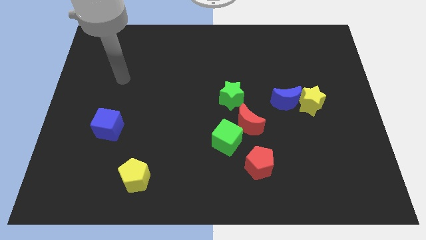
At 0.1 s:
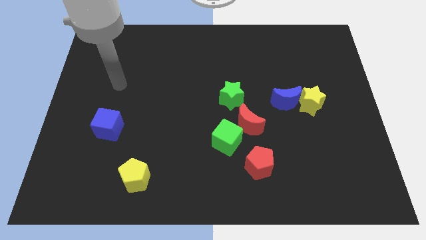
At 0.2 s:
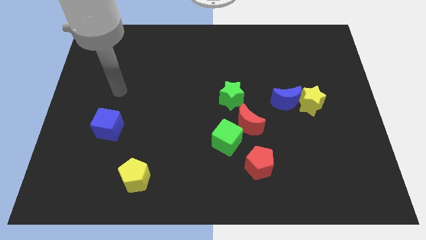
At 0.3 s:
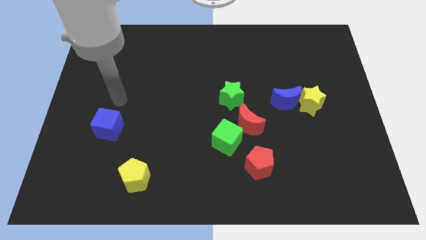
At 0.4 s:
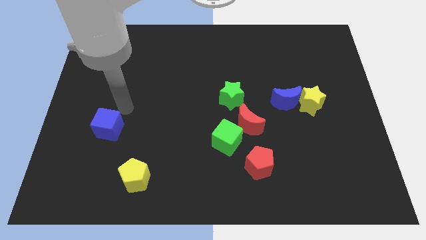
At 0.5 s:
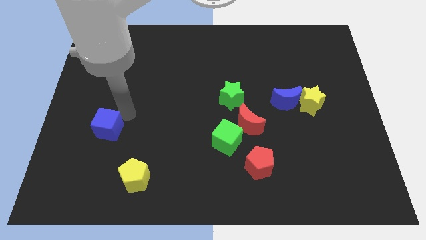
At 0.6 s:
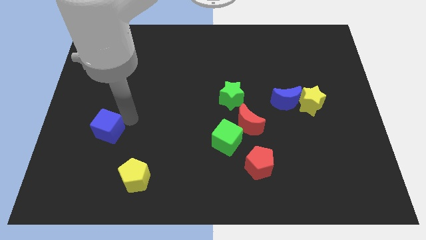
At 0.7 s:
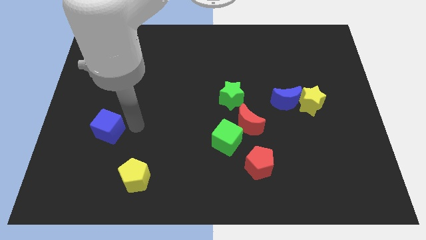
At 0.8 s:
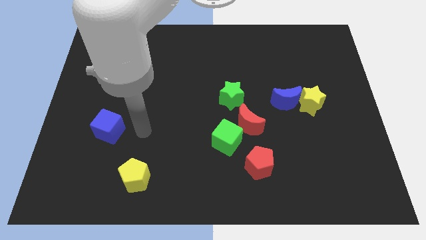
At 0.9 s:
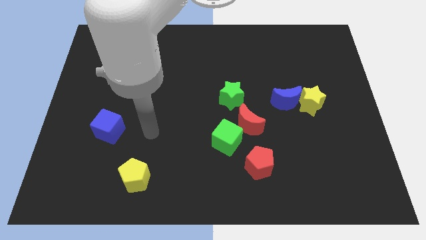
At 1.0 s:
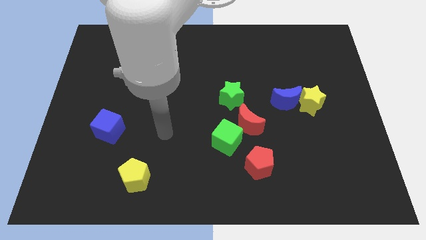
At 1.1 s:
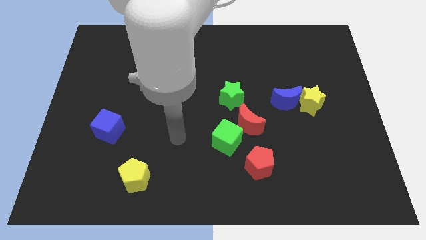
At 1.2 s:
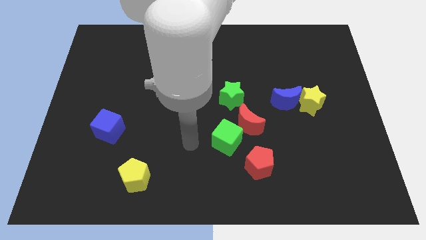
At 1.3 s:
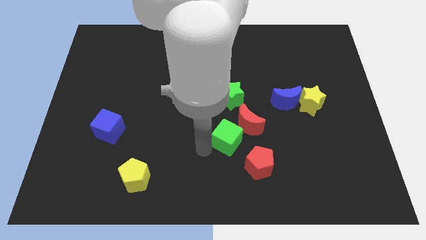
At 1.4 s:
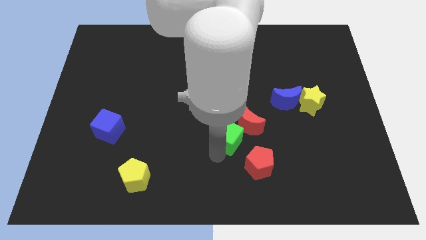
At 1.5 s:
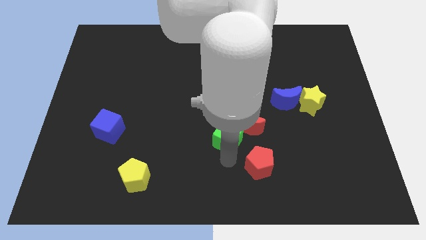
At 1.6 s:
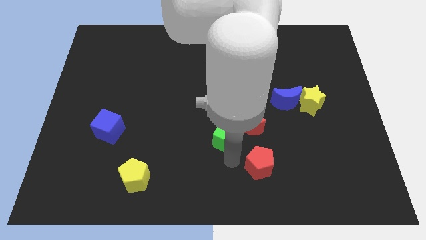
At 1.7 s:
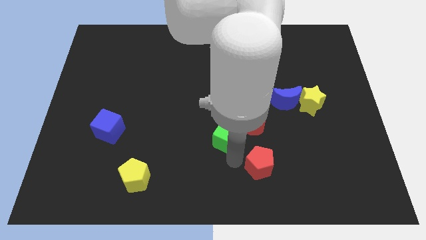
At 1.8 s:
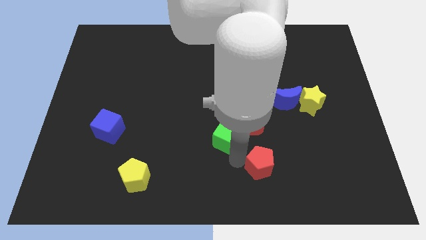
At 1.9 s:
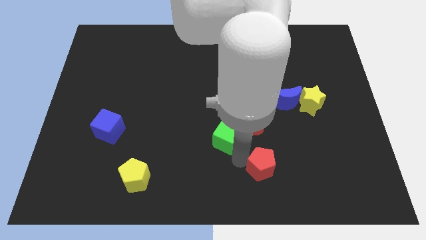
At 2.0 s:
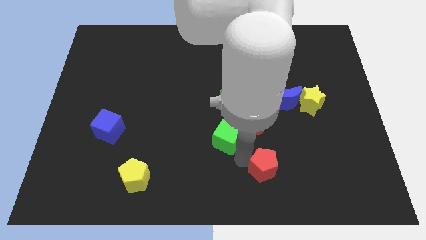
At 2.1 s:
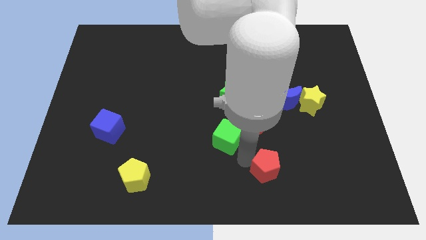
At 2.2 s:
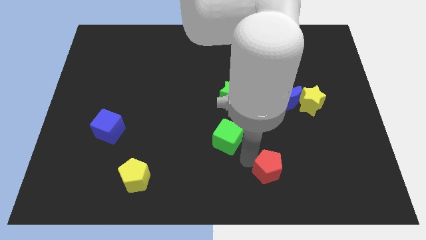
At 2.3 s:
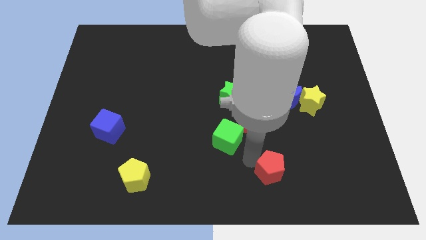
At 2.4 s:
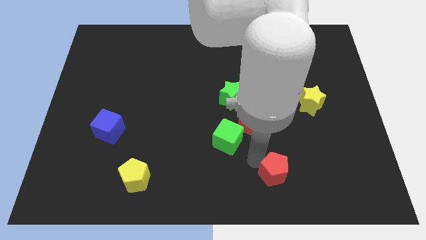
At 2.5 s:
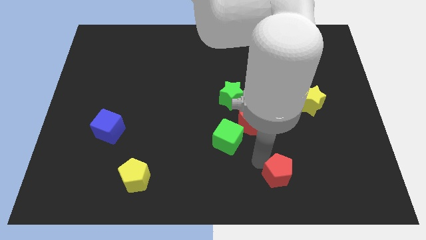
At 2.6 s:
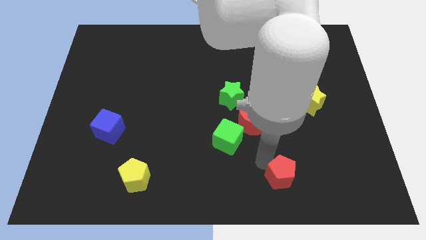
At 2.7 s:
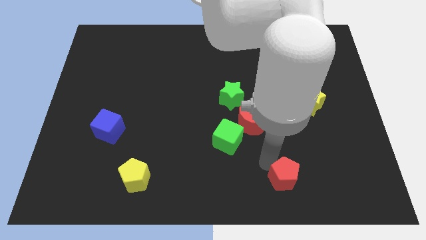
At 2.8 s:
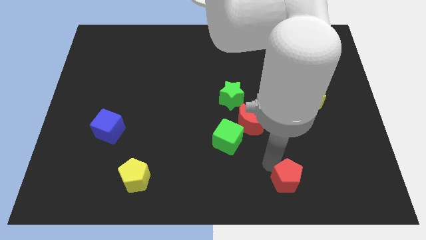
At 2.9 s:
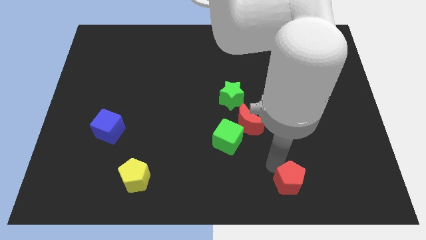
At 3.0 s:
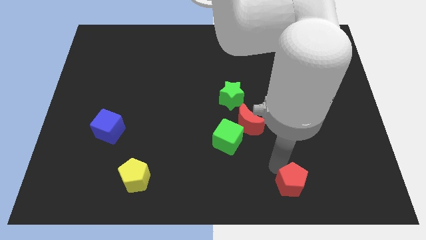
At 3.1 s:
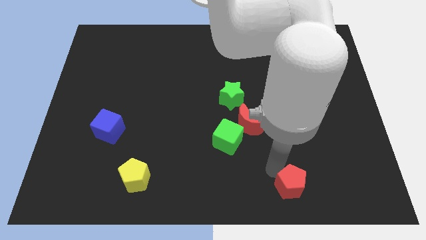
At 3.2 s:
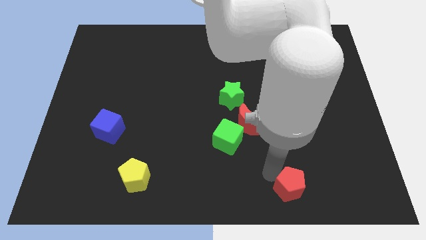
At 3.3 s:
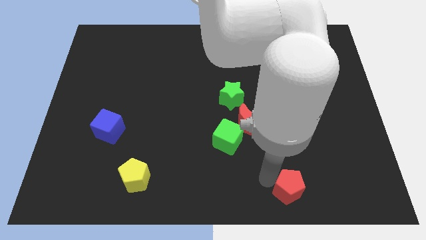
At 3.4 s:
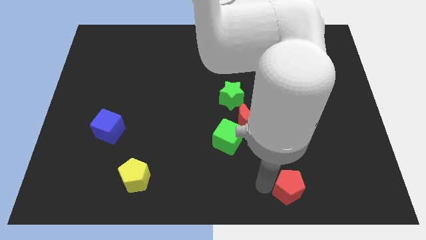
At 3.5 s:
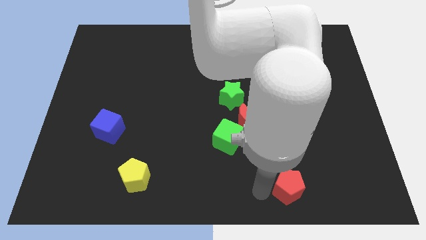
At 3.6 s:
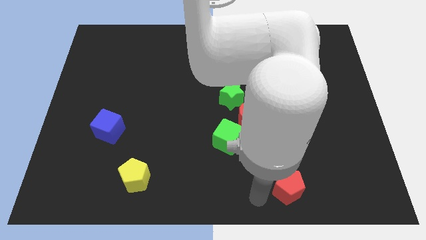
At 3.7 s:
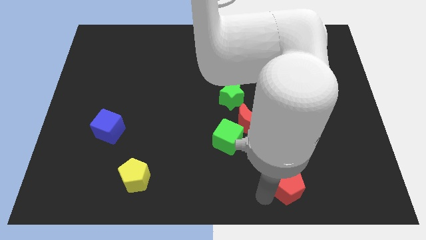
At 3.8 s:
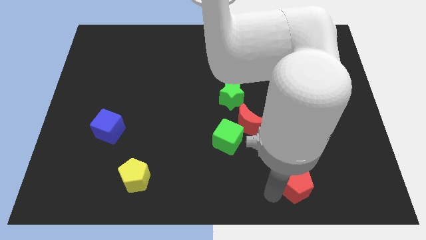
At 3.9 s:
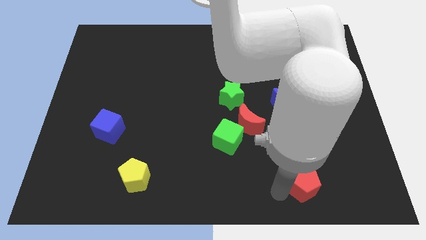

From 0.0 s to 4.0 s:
slightly push the red pentagon to the right

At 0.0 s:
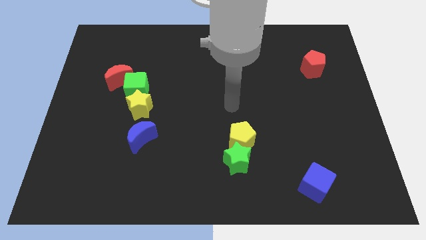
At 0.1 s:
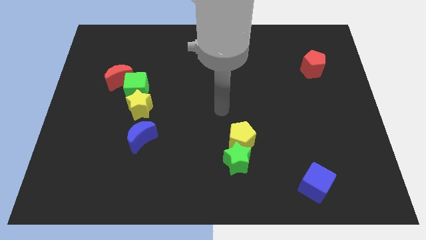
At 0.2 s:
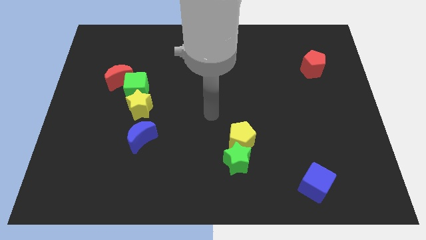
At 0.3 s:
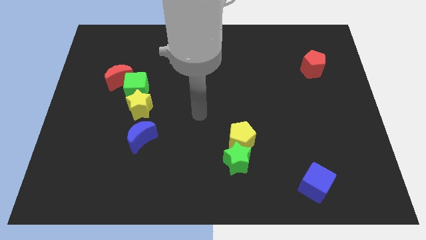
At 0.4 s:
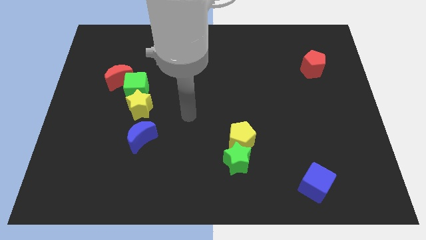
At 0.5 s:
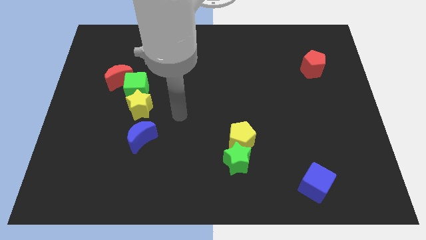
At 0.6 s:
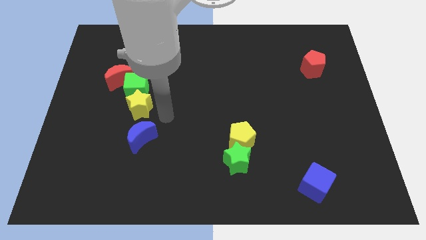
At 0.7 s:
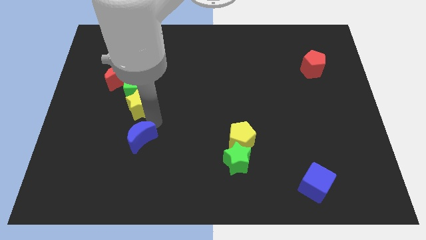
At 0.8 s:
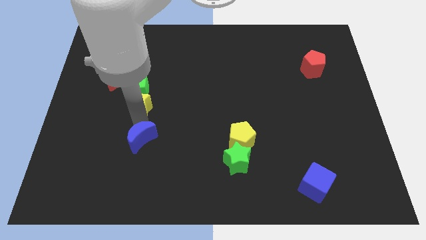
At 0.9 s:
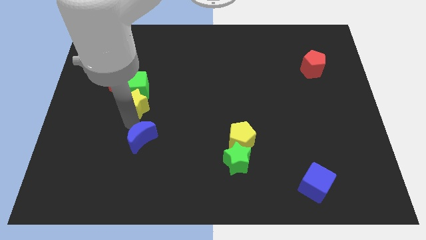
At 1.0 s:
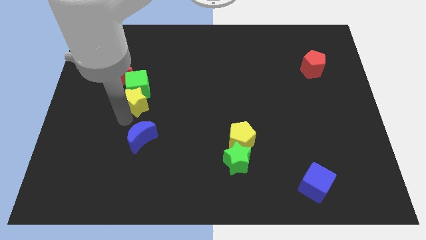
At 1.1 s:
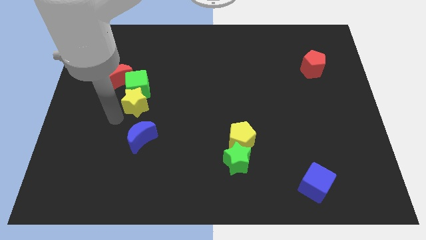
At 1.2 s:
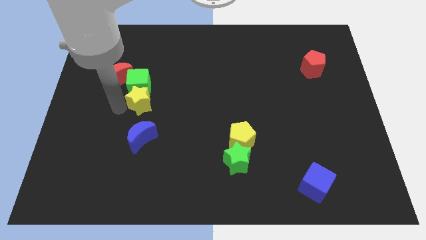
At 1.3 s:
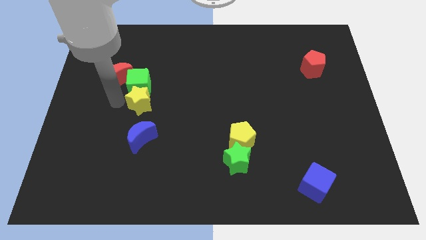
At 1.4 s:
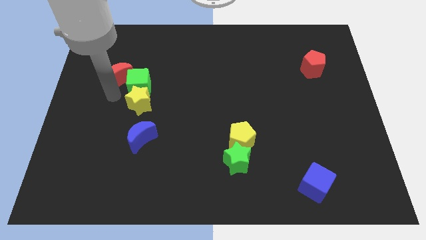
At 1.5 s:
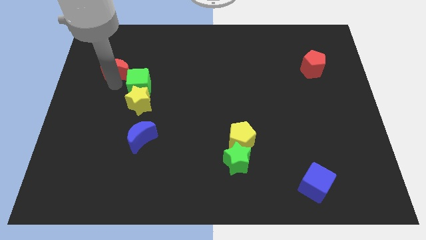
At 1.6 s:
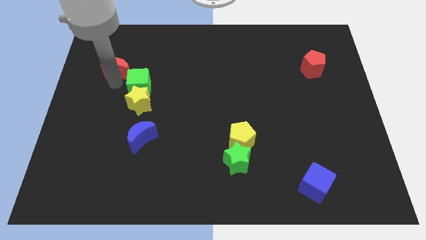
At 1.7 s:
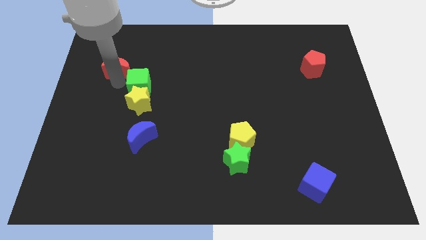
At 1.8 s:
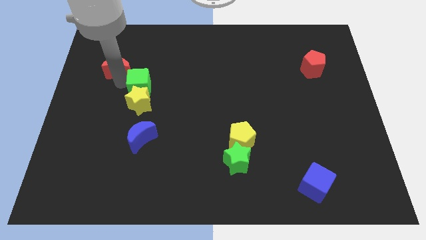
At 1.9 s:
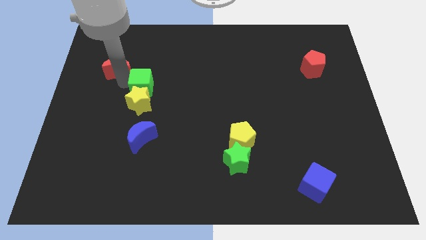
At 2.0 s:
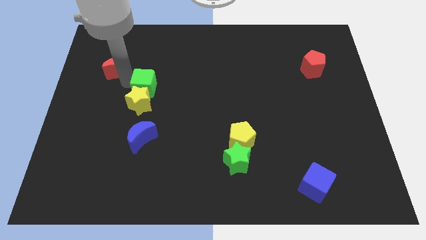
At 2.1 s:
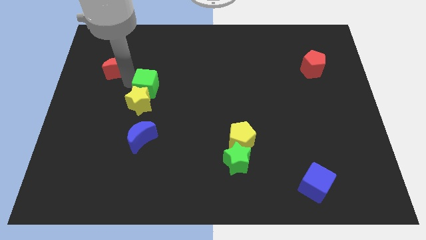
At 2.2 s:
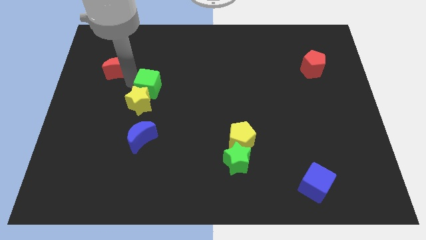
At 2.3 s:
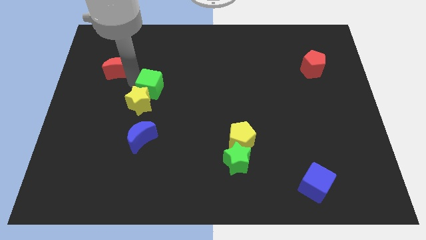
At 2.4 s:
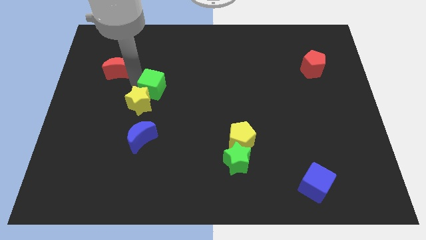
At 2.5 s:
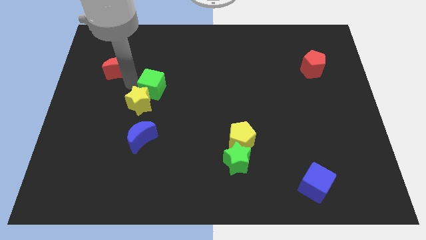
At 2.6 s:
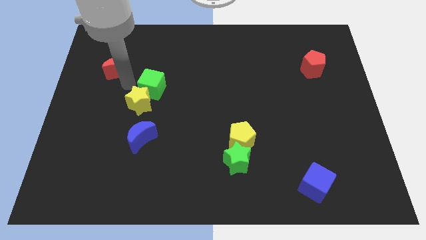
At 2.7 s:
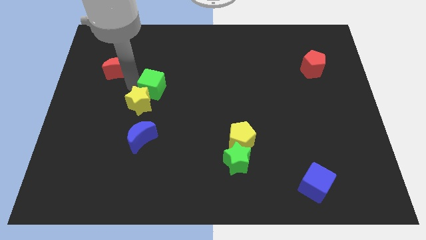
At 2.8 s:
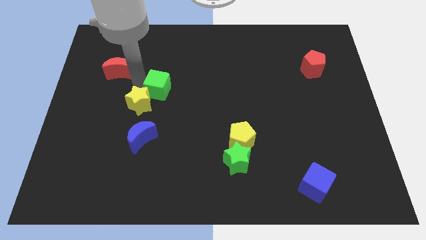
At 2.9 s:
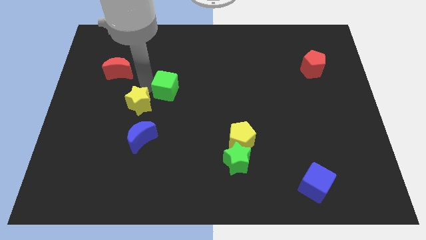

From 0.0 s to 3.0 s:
slightly push the green cube right

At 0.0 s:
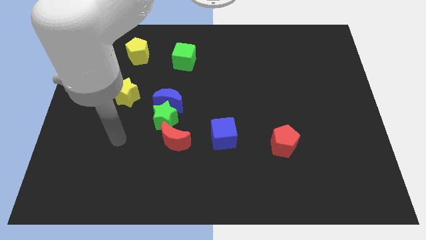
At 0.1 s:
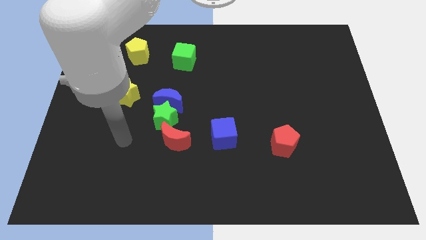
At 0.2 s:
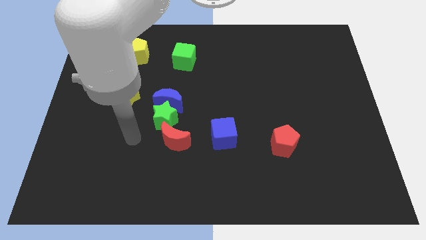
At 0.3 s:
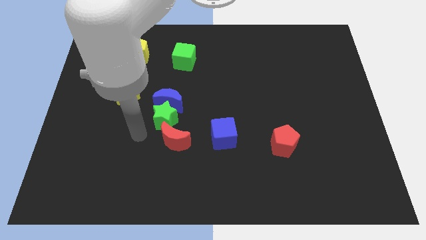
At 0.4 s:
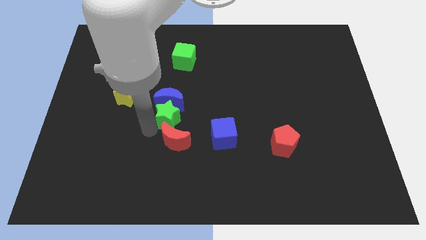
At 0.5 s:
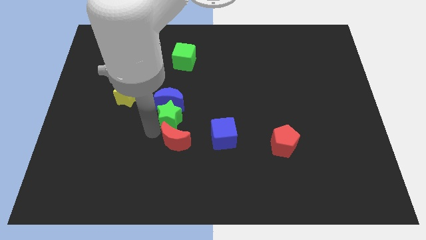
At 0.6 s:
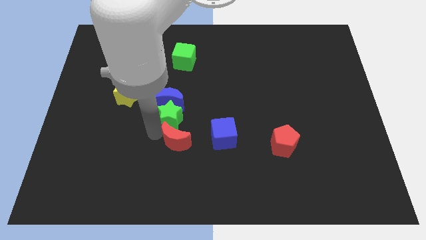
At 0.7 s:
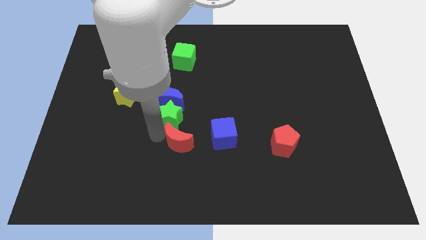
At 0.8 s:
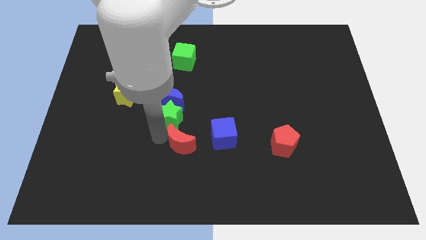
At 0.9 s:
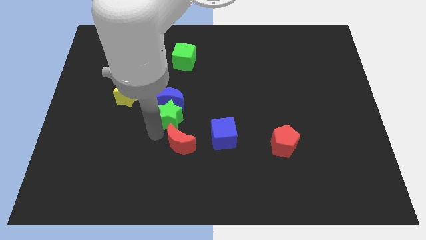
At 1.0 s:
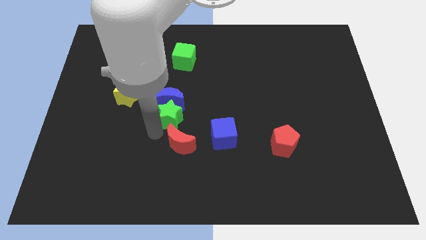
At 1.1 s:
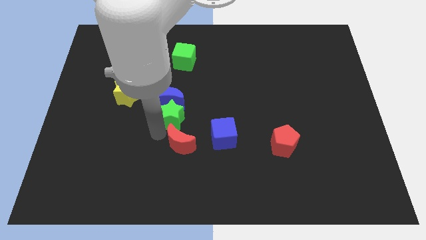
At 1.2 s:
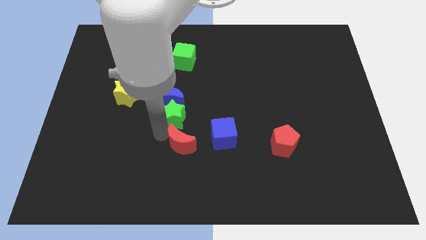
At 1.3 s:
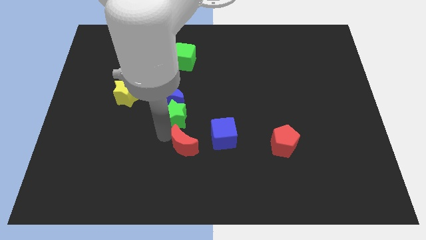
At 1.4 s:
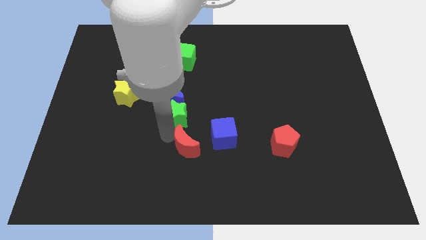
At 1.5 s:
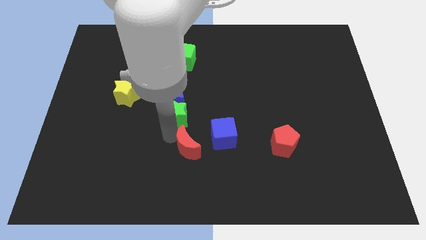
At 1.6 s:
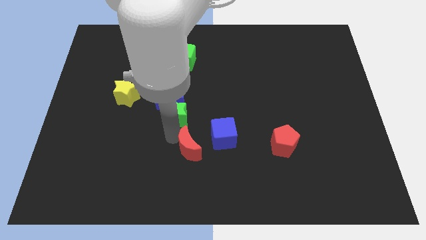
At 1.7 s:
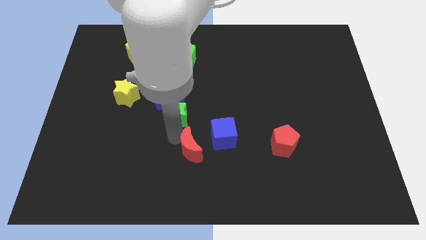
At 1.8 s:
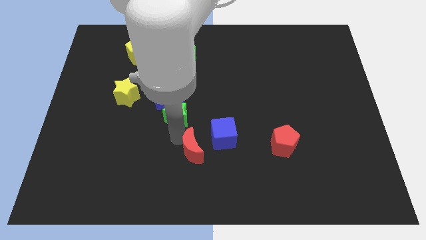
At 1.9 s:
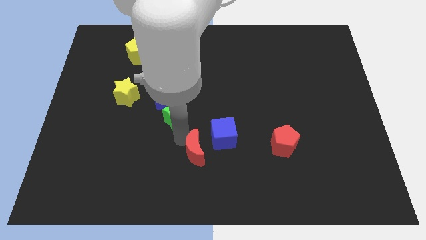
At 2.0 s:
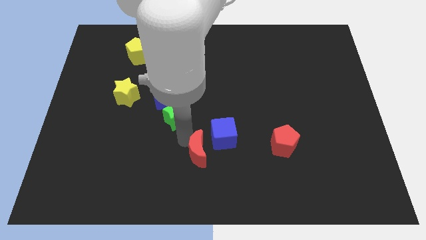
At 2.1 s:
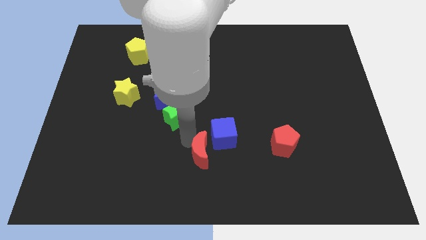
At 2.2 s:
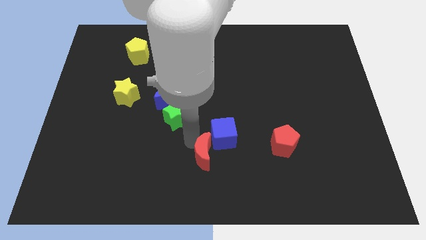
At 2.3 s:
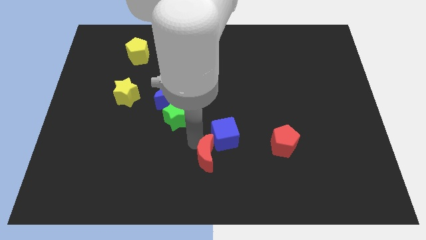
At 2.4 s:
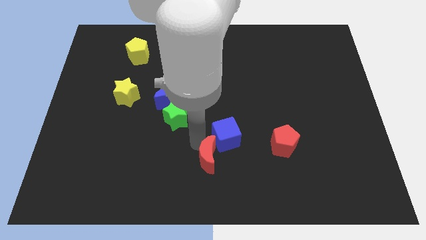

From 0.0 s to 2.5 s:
slightly slide the red moon right
